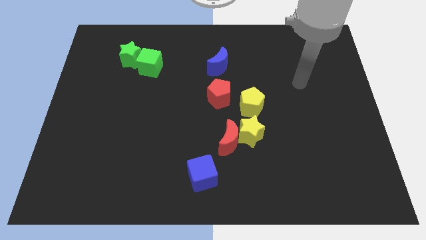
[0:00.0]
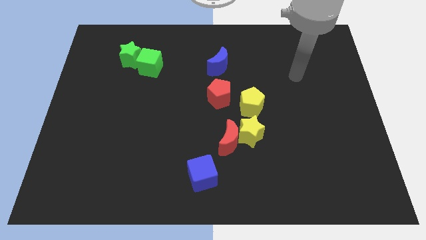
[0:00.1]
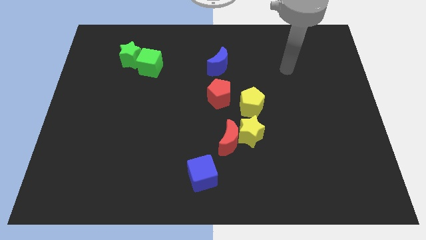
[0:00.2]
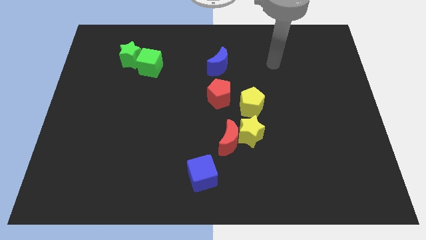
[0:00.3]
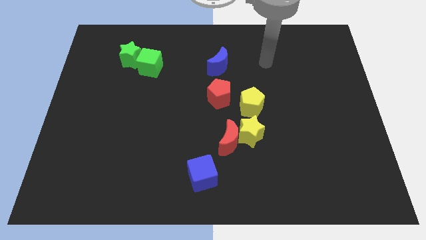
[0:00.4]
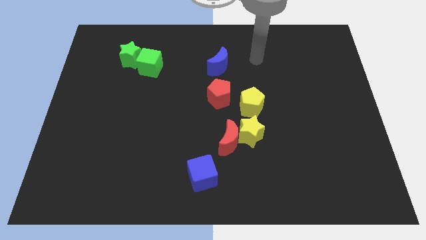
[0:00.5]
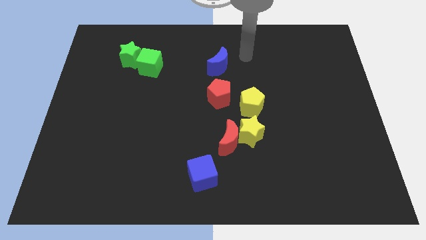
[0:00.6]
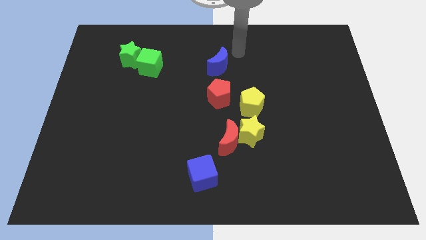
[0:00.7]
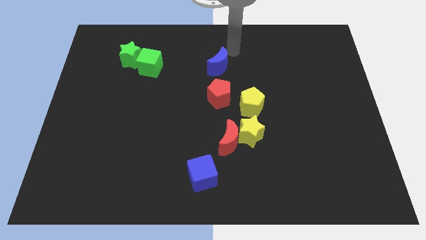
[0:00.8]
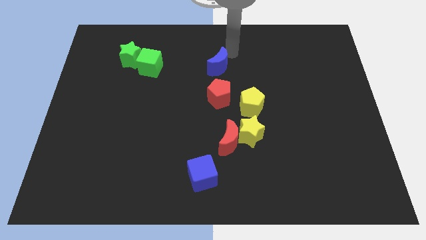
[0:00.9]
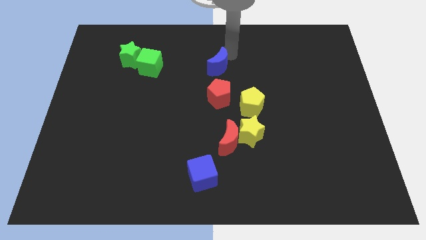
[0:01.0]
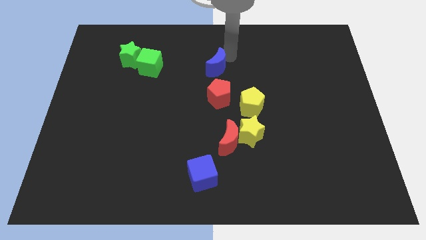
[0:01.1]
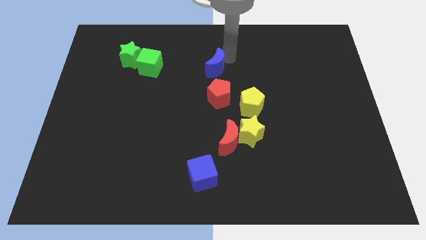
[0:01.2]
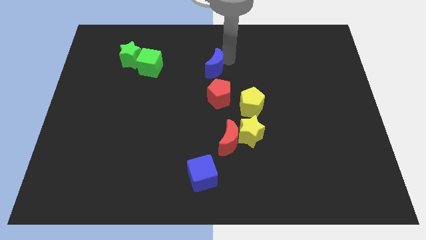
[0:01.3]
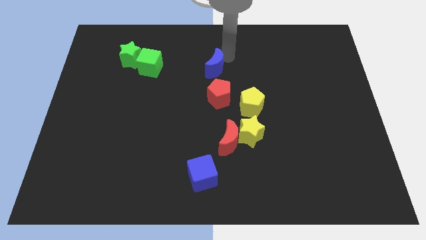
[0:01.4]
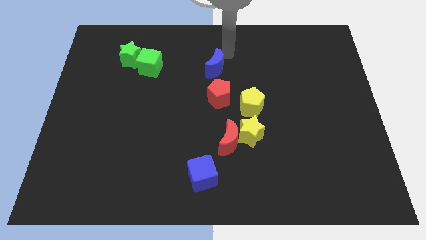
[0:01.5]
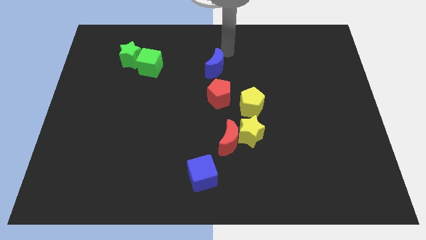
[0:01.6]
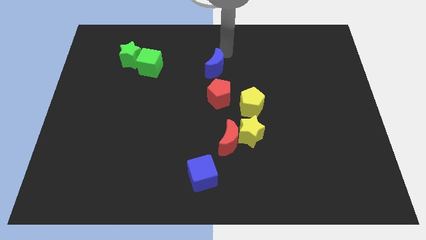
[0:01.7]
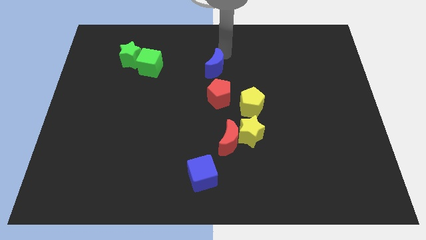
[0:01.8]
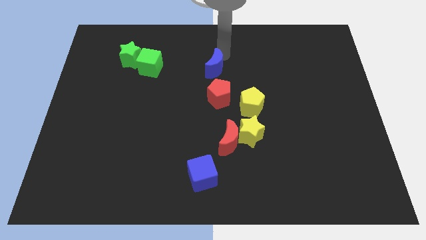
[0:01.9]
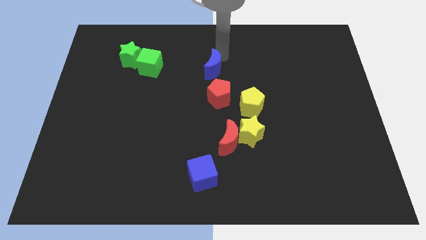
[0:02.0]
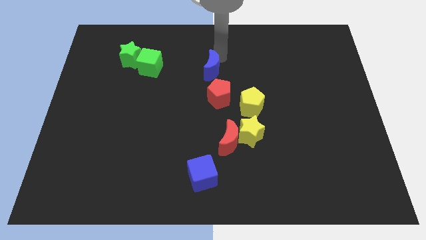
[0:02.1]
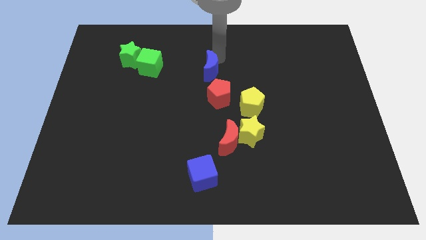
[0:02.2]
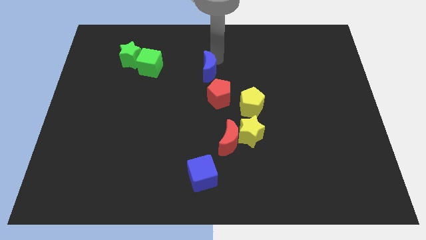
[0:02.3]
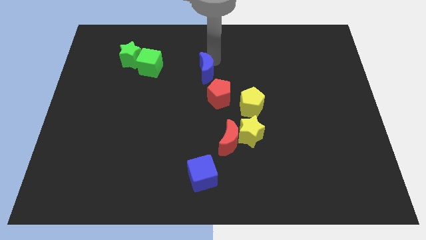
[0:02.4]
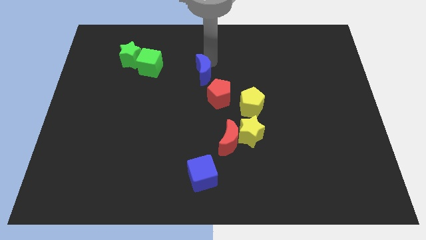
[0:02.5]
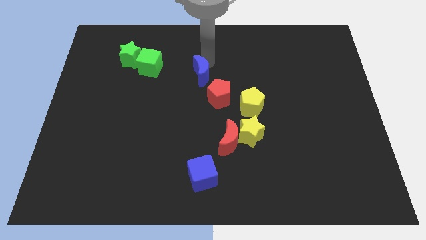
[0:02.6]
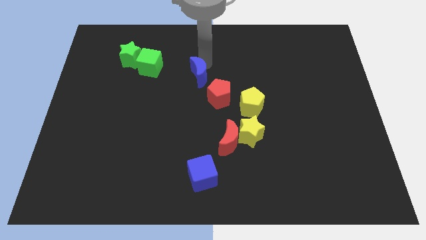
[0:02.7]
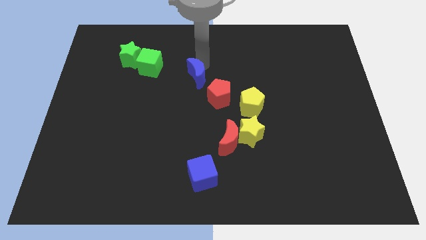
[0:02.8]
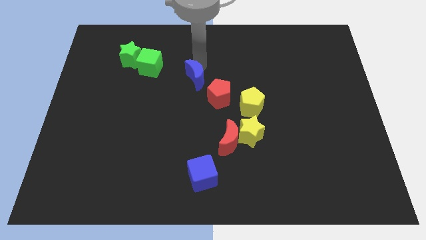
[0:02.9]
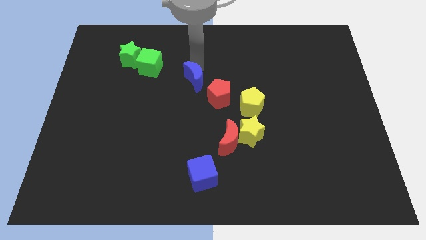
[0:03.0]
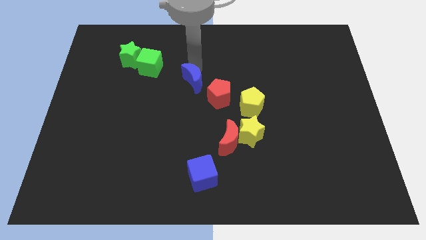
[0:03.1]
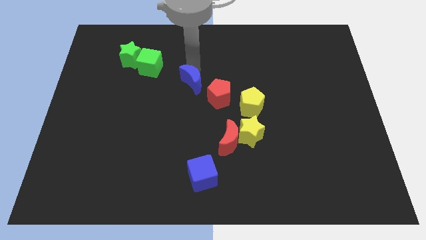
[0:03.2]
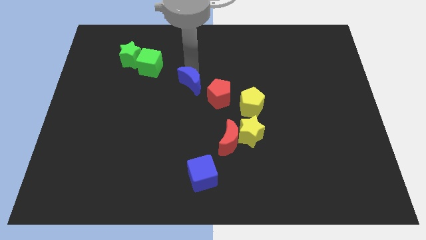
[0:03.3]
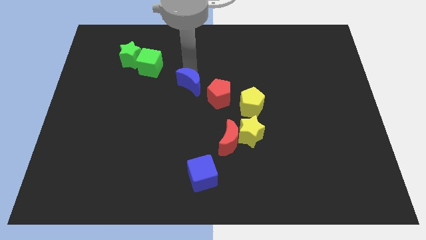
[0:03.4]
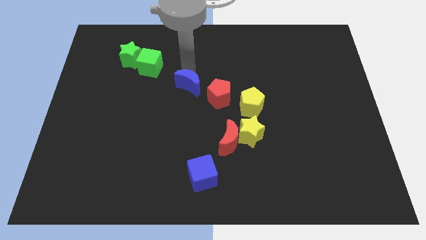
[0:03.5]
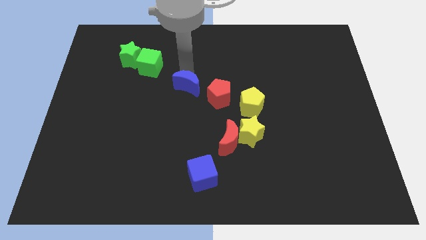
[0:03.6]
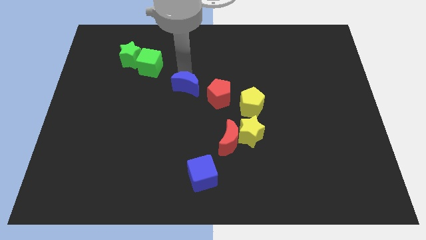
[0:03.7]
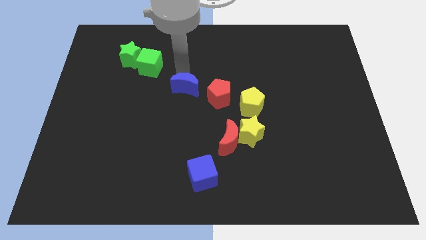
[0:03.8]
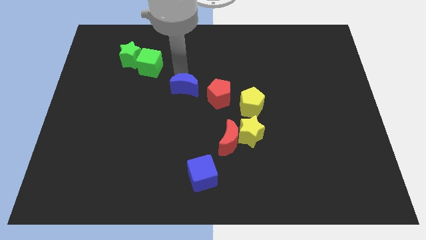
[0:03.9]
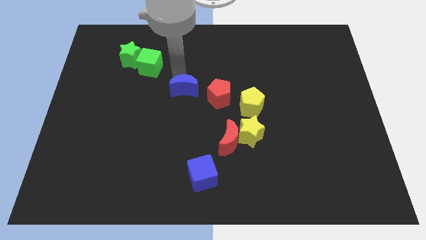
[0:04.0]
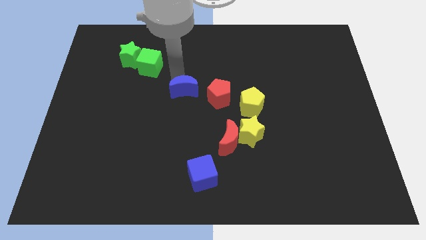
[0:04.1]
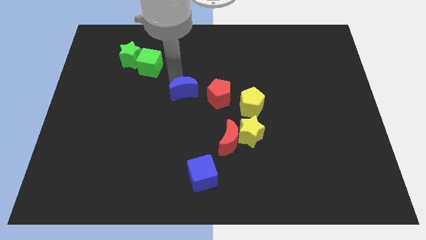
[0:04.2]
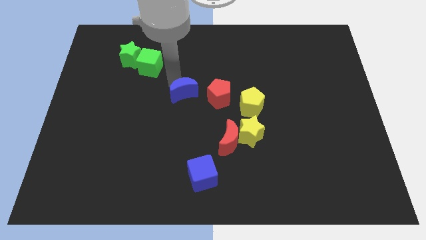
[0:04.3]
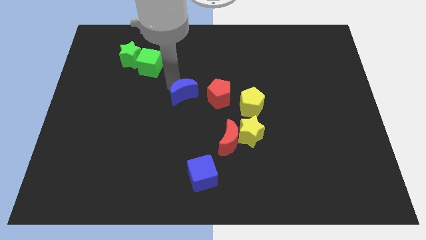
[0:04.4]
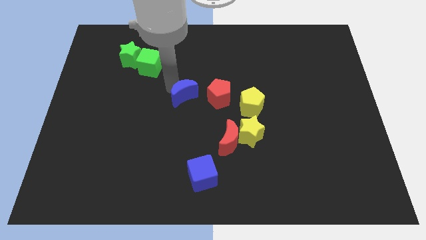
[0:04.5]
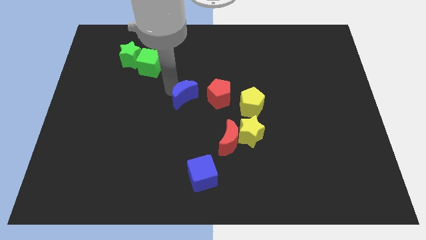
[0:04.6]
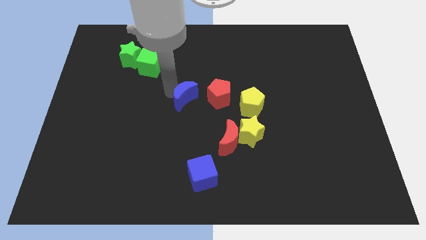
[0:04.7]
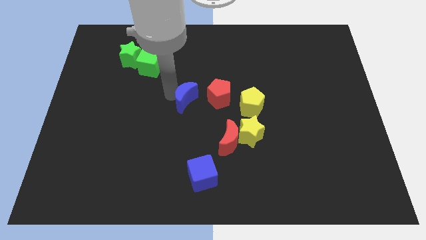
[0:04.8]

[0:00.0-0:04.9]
put the blue moon to the left of the yellow pentagon

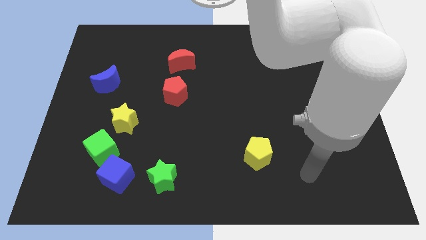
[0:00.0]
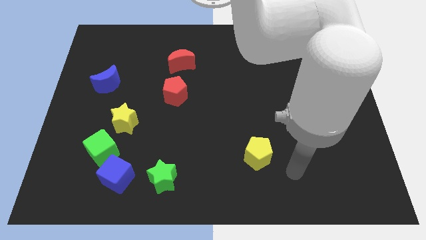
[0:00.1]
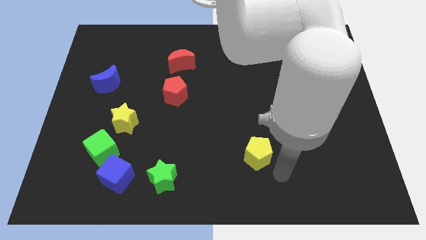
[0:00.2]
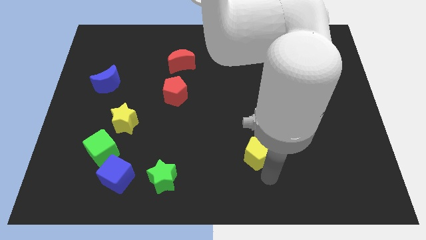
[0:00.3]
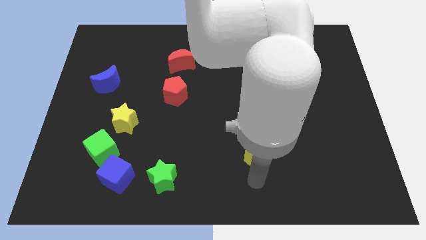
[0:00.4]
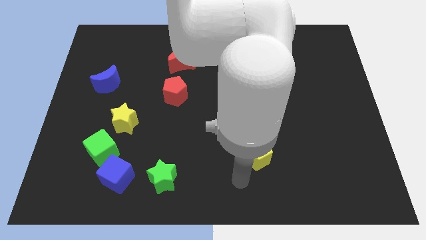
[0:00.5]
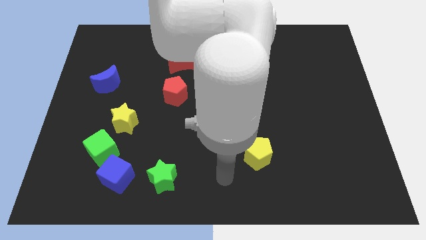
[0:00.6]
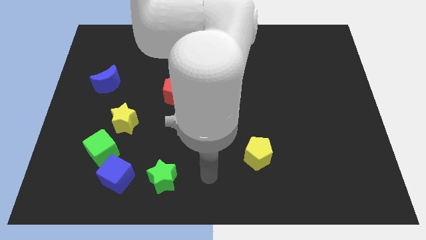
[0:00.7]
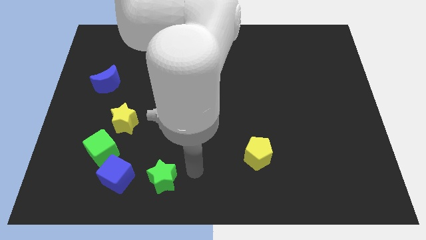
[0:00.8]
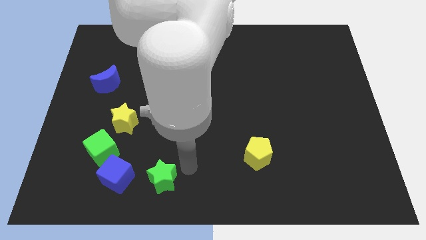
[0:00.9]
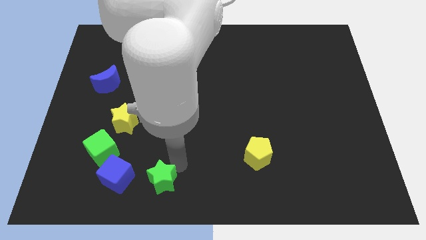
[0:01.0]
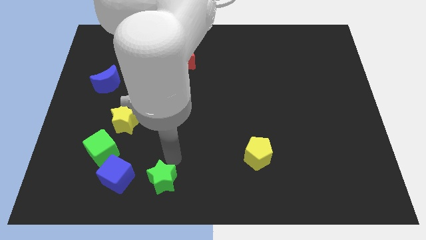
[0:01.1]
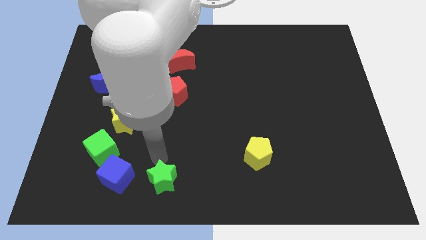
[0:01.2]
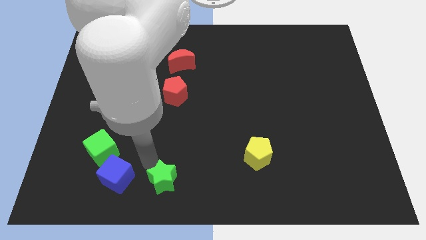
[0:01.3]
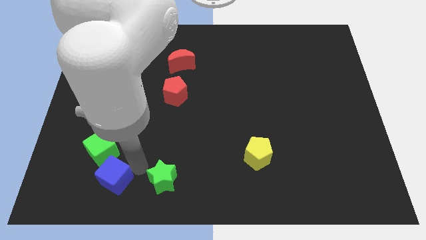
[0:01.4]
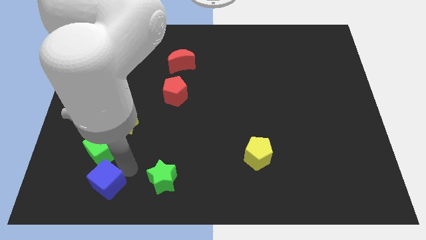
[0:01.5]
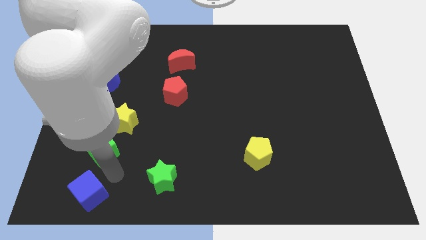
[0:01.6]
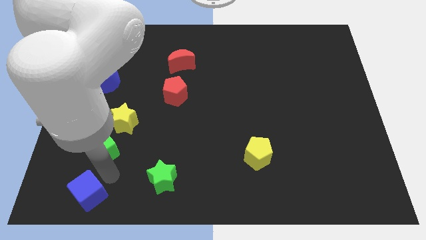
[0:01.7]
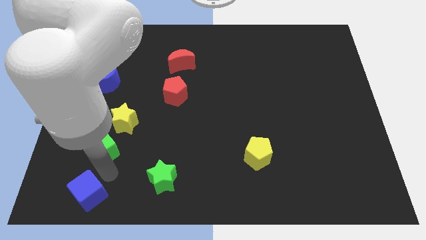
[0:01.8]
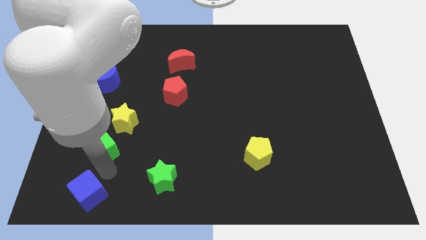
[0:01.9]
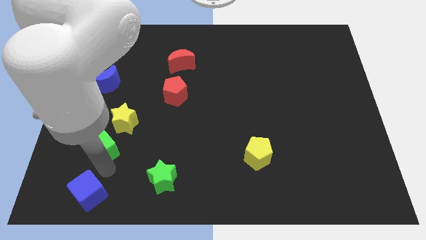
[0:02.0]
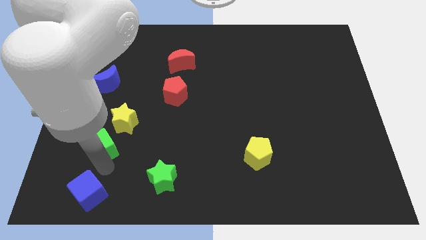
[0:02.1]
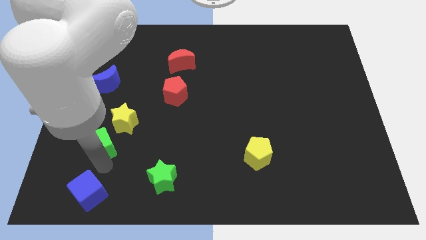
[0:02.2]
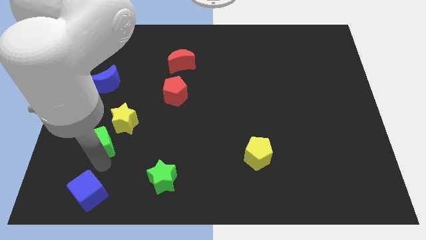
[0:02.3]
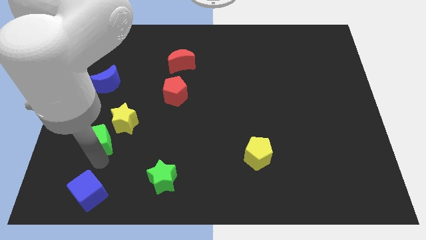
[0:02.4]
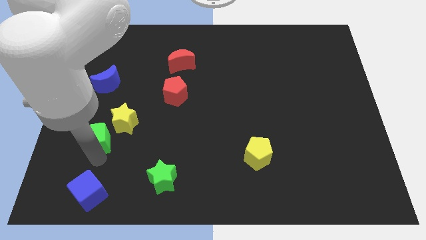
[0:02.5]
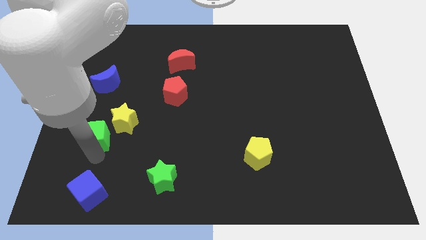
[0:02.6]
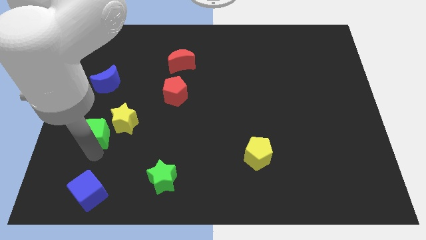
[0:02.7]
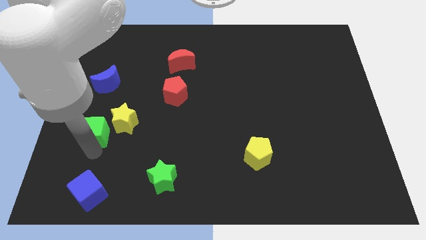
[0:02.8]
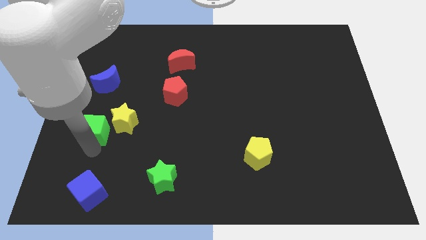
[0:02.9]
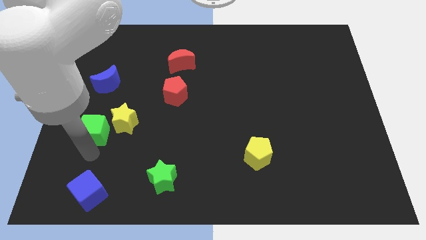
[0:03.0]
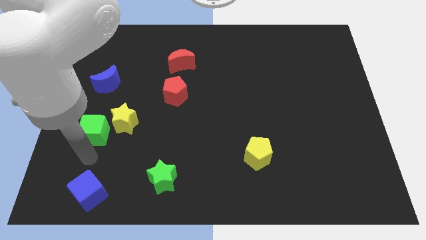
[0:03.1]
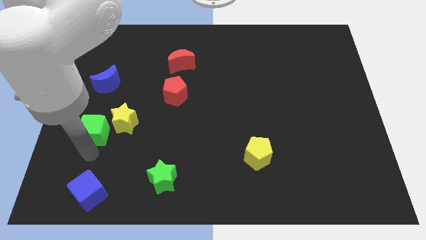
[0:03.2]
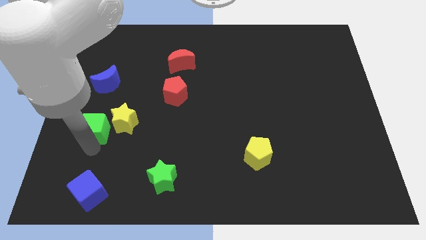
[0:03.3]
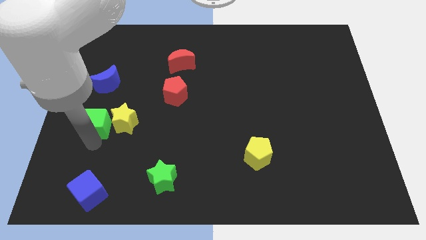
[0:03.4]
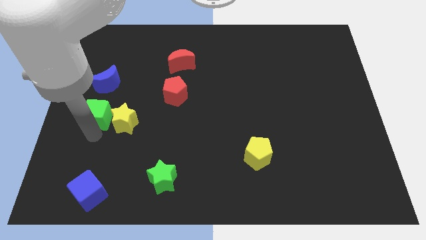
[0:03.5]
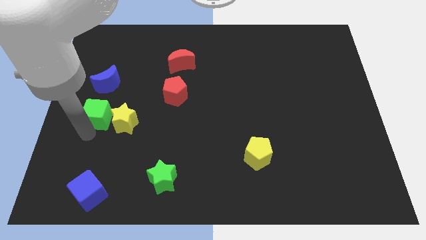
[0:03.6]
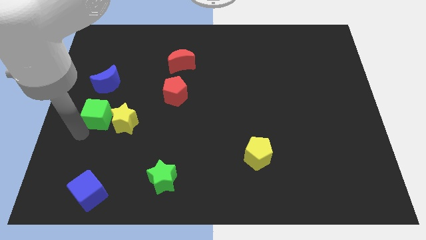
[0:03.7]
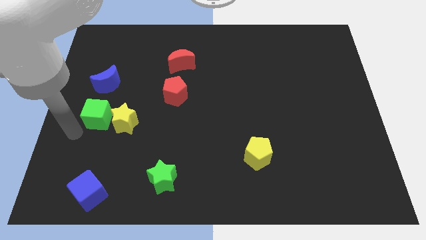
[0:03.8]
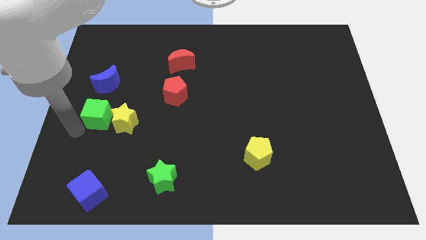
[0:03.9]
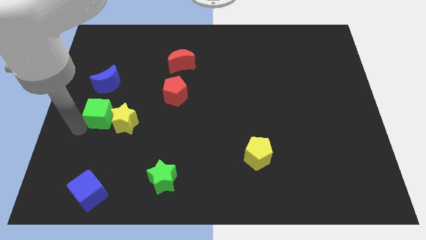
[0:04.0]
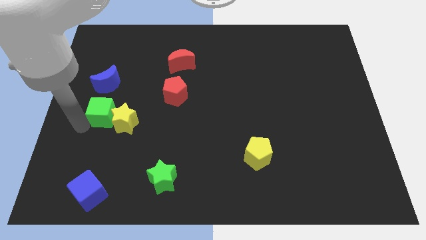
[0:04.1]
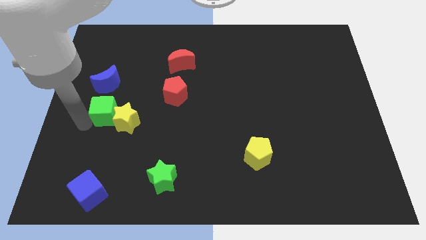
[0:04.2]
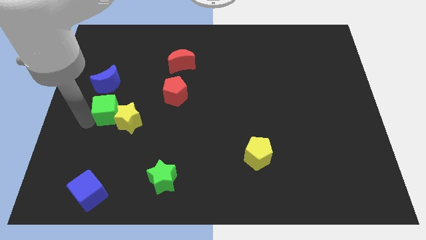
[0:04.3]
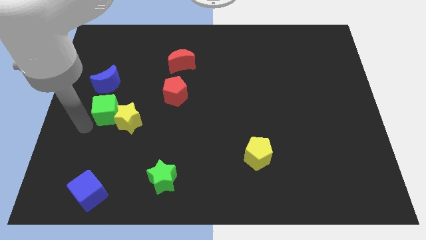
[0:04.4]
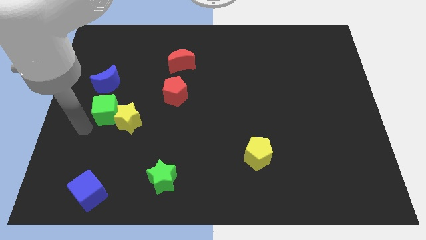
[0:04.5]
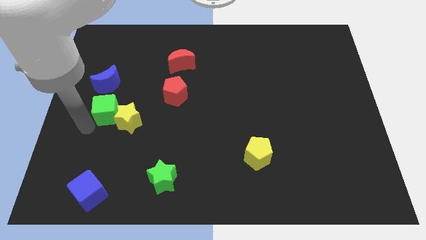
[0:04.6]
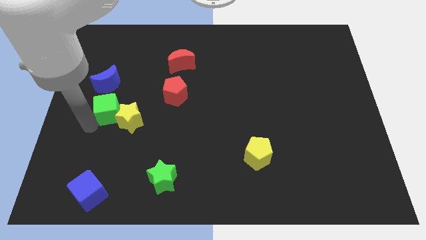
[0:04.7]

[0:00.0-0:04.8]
move the green cube to the bottom right of the blue moon
